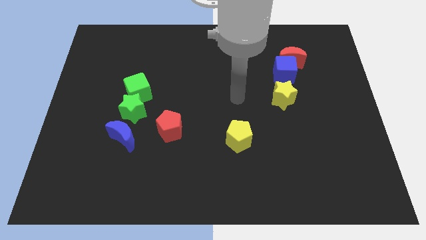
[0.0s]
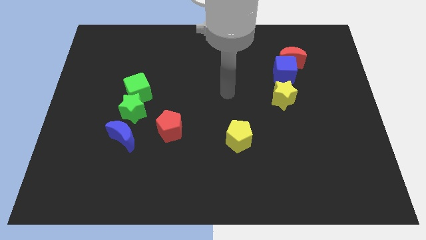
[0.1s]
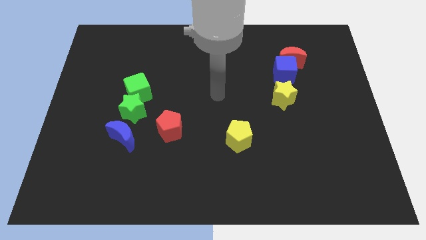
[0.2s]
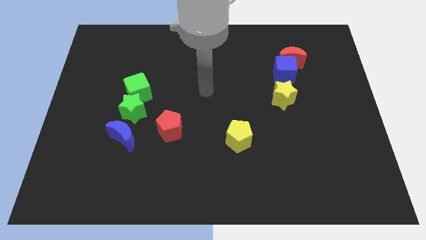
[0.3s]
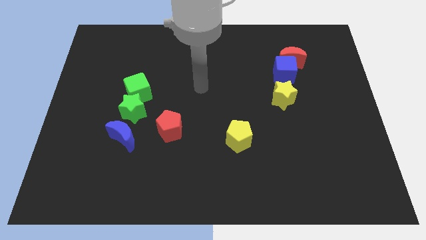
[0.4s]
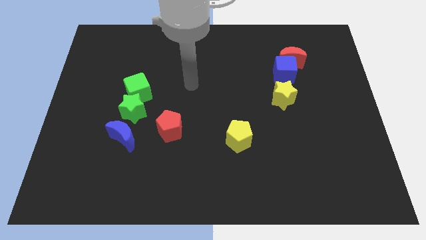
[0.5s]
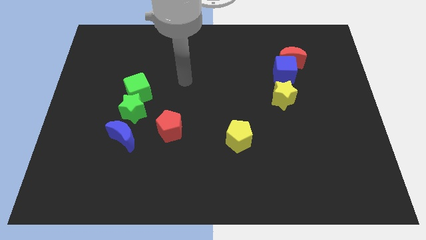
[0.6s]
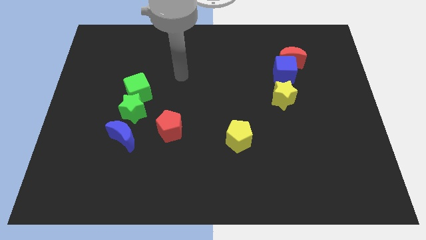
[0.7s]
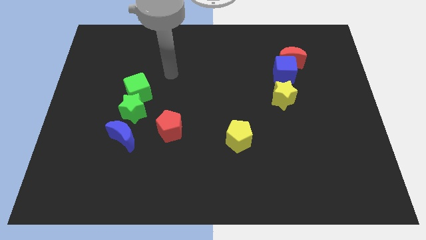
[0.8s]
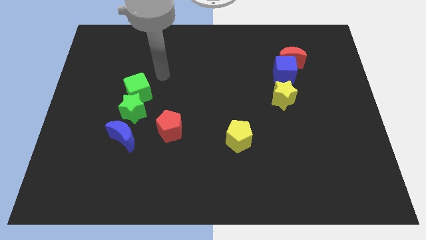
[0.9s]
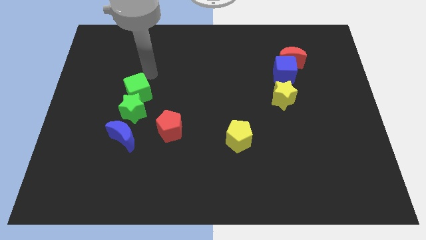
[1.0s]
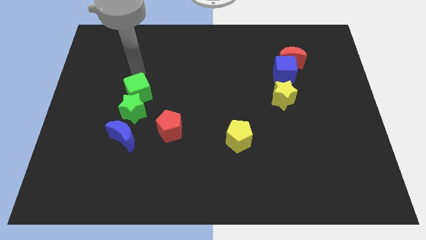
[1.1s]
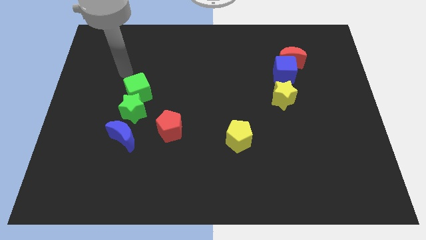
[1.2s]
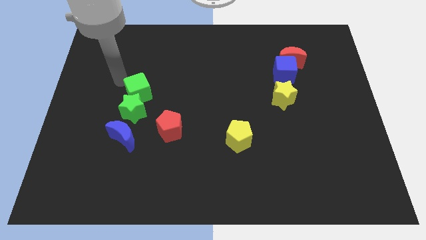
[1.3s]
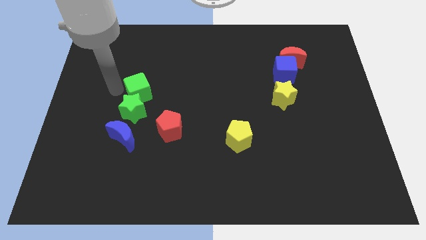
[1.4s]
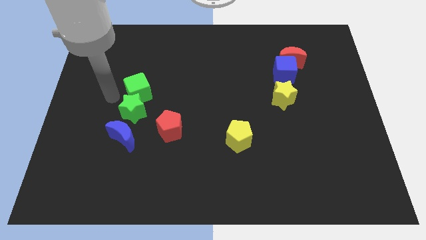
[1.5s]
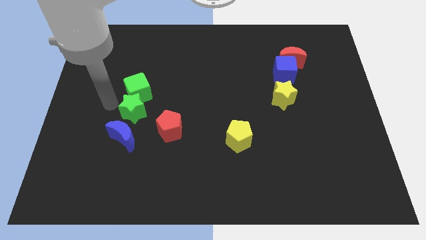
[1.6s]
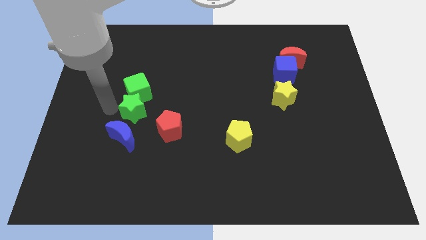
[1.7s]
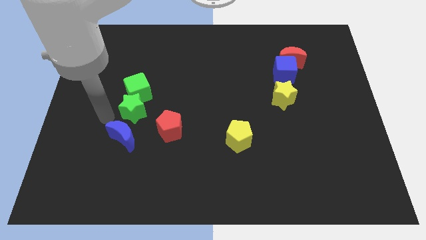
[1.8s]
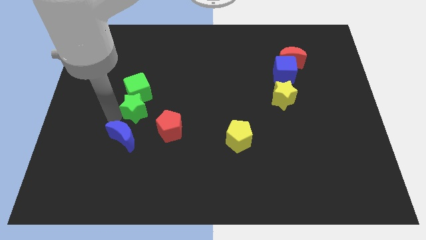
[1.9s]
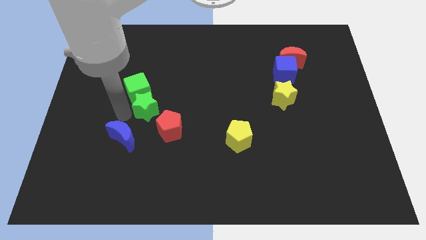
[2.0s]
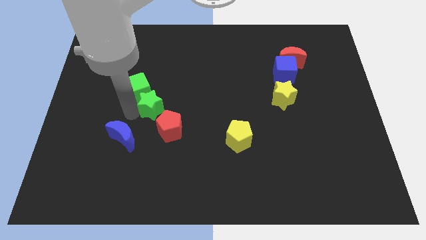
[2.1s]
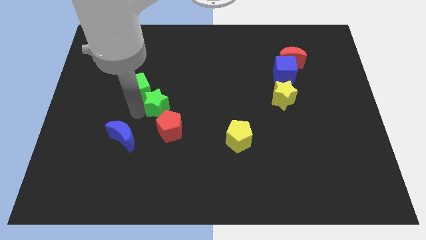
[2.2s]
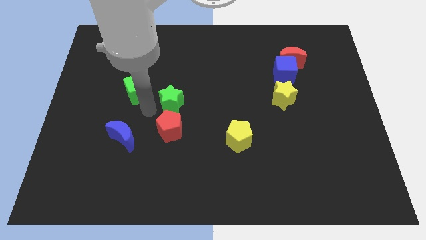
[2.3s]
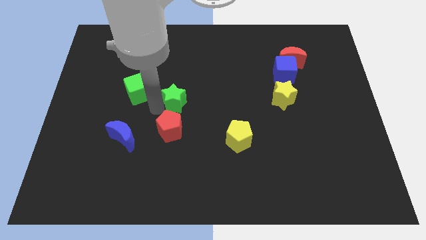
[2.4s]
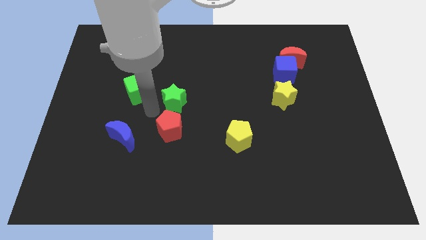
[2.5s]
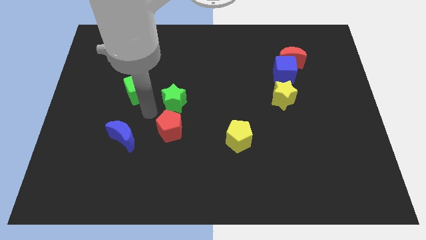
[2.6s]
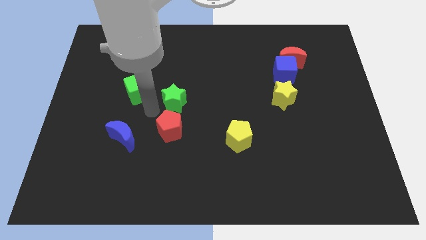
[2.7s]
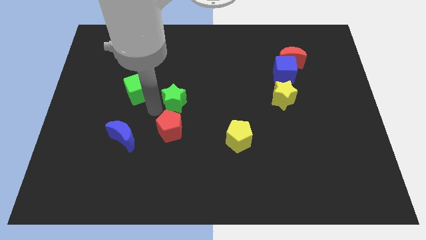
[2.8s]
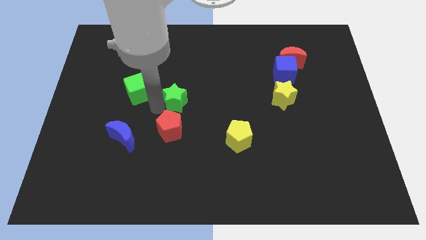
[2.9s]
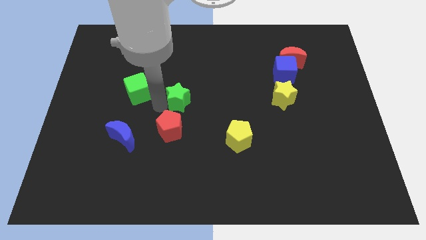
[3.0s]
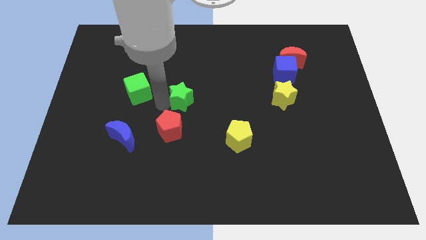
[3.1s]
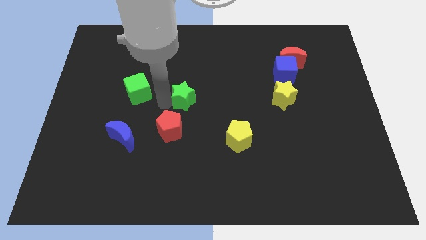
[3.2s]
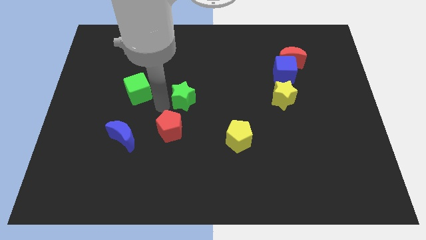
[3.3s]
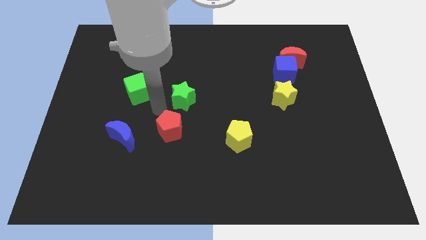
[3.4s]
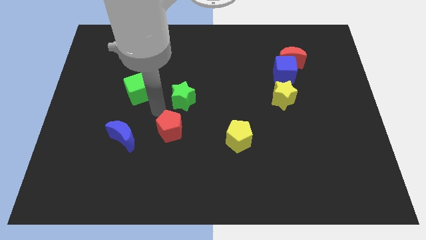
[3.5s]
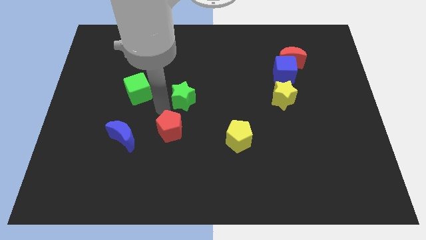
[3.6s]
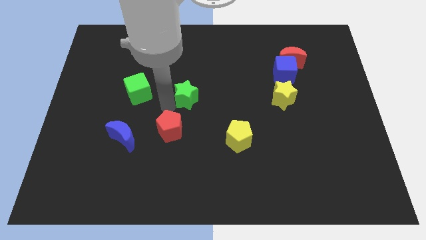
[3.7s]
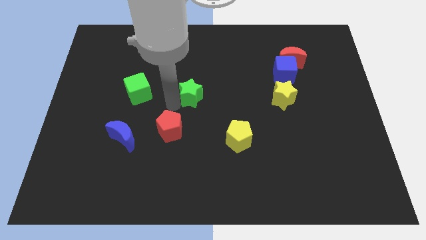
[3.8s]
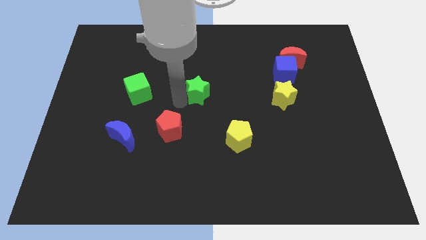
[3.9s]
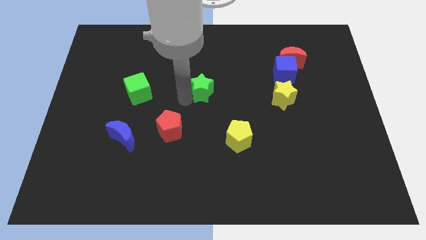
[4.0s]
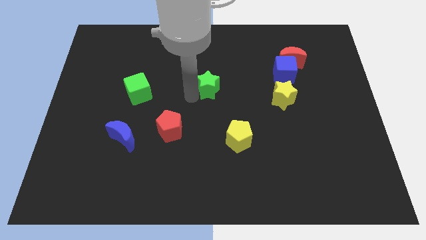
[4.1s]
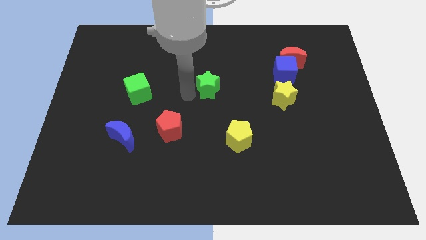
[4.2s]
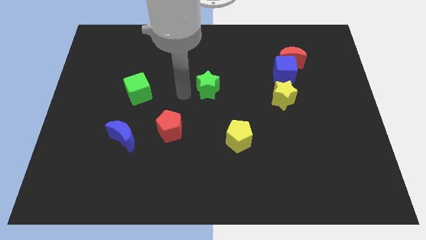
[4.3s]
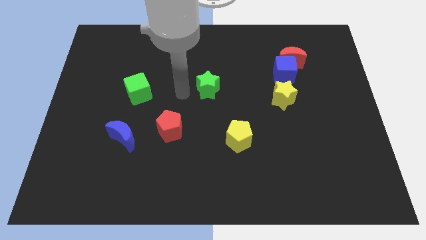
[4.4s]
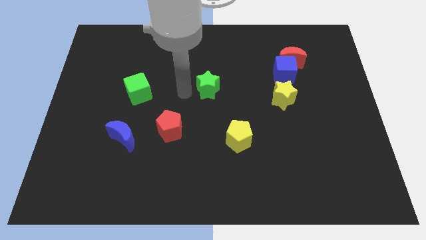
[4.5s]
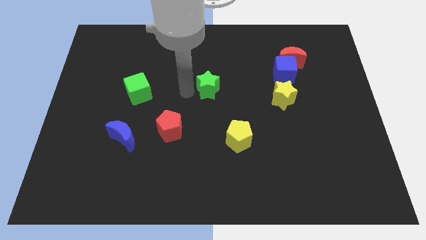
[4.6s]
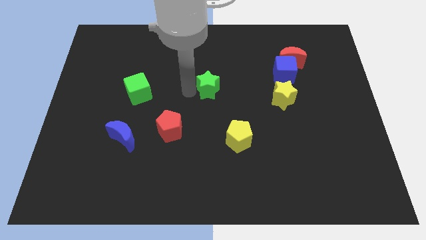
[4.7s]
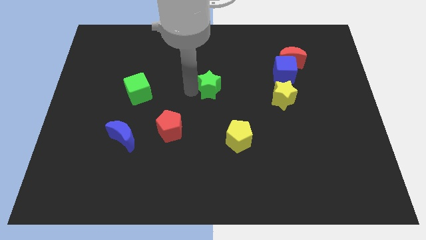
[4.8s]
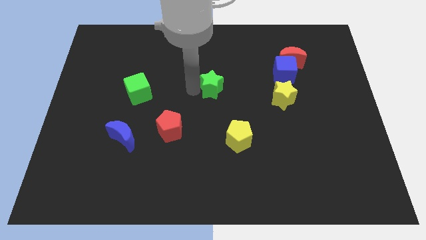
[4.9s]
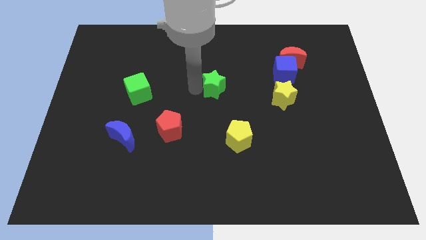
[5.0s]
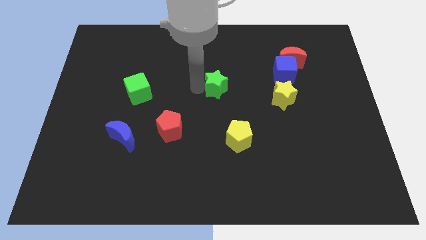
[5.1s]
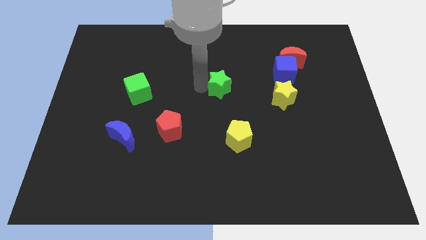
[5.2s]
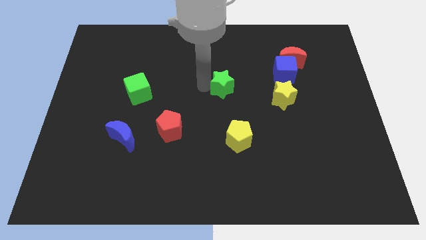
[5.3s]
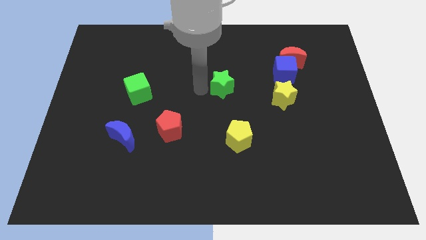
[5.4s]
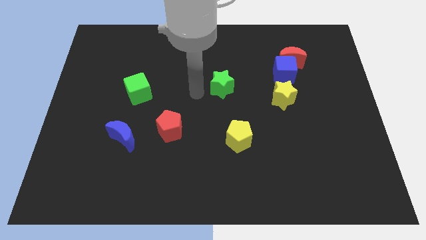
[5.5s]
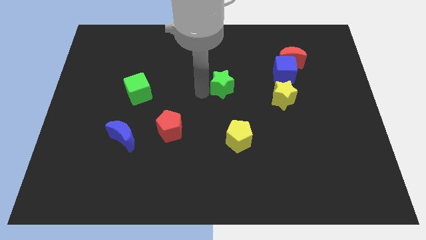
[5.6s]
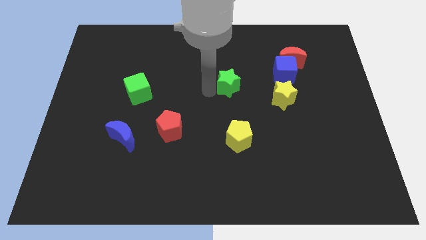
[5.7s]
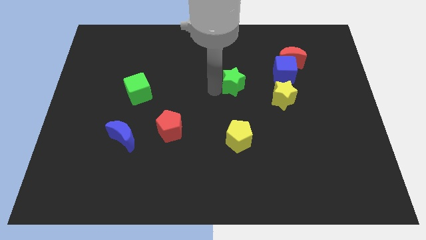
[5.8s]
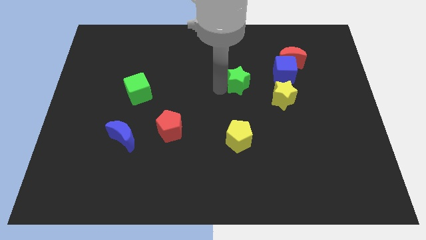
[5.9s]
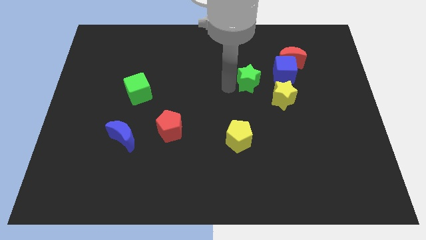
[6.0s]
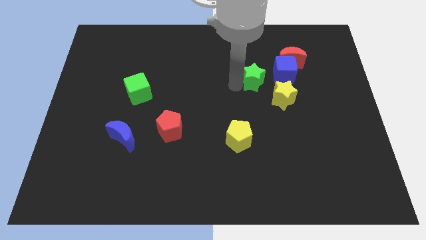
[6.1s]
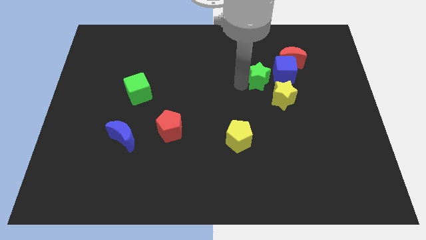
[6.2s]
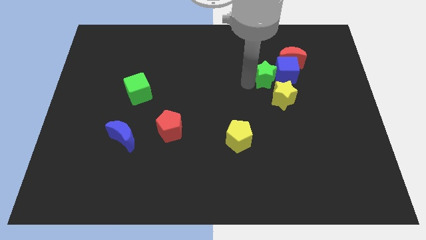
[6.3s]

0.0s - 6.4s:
push the green star close to the blue cube
